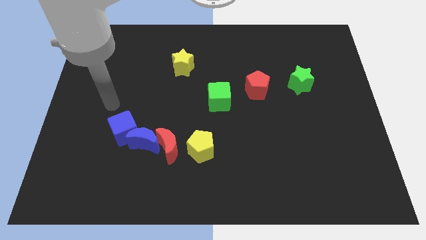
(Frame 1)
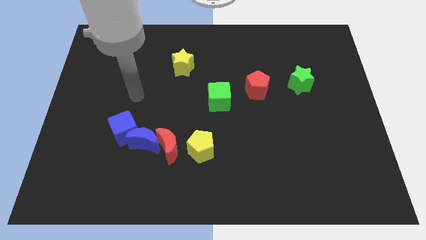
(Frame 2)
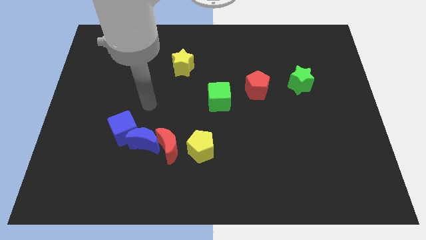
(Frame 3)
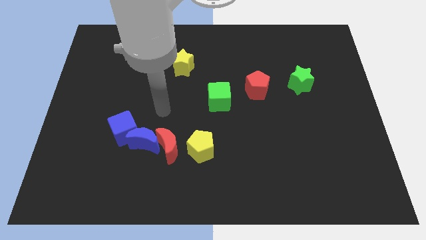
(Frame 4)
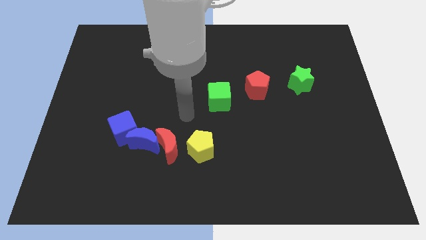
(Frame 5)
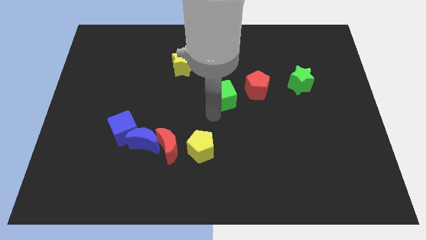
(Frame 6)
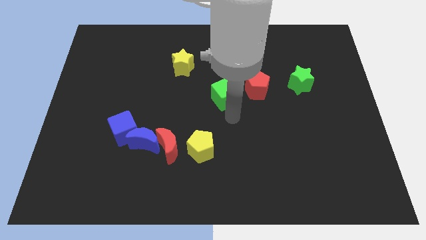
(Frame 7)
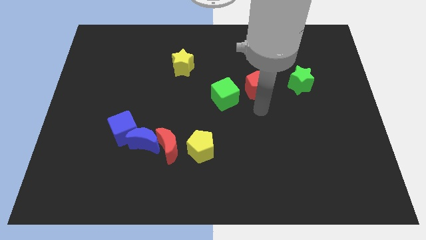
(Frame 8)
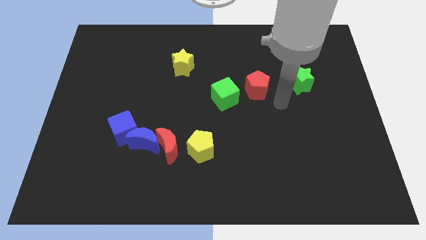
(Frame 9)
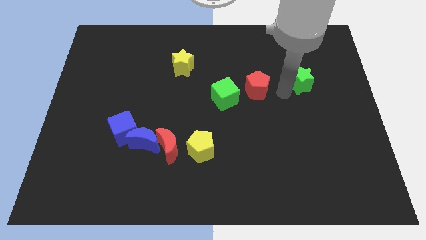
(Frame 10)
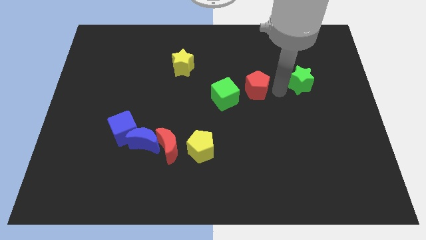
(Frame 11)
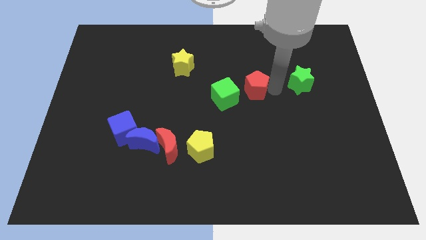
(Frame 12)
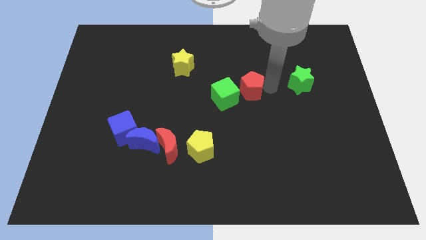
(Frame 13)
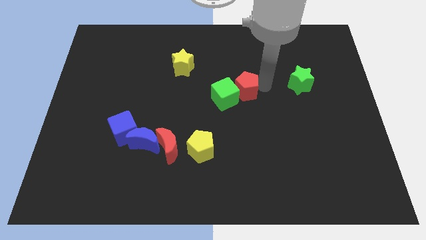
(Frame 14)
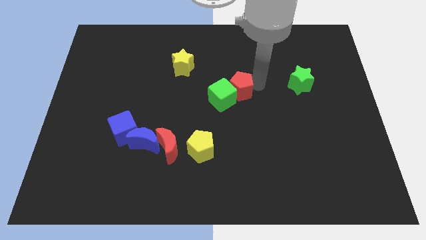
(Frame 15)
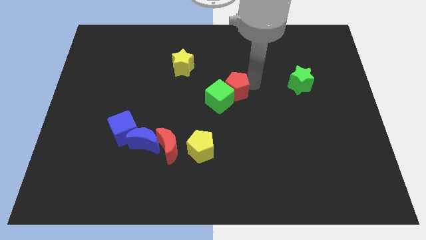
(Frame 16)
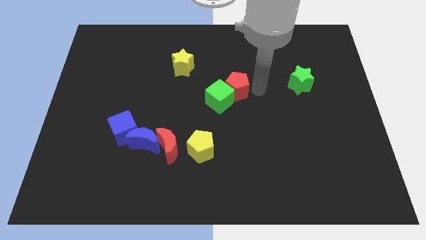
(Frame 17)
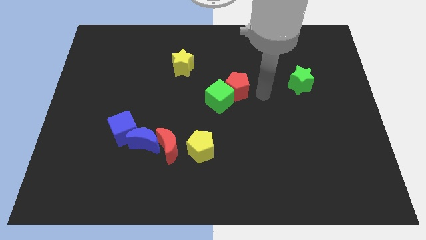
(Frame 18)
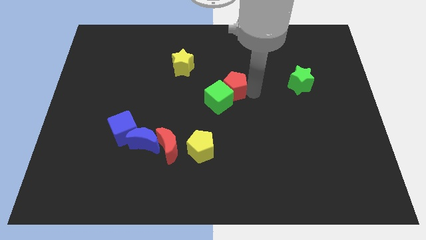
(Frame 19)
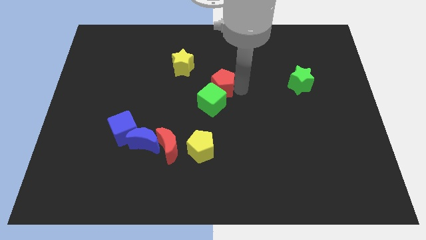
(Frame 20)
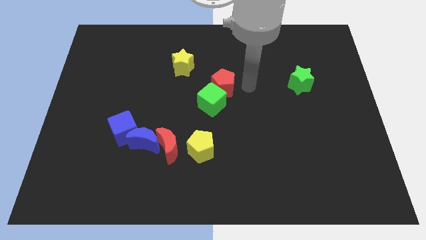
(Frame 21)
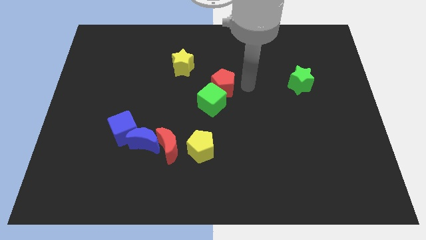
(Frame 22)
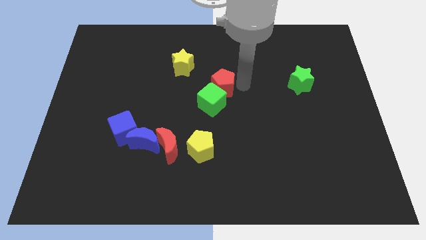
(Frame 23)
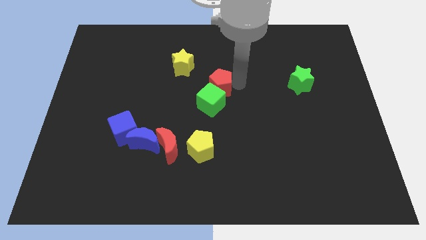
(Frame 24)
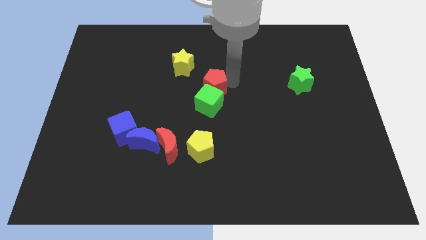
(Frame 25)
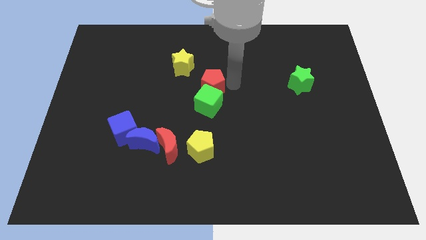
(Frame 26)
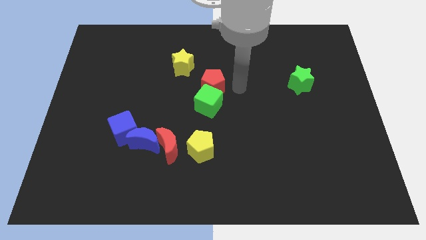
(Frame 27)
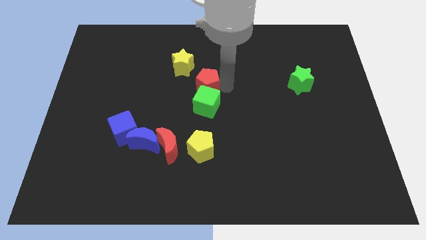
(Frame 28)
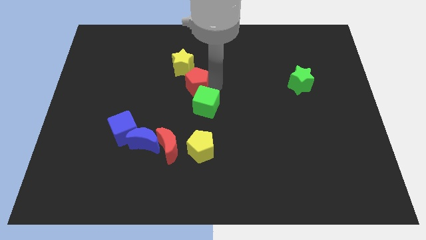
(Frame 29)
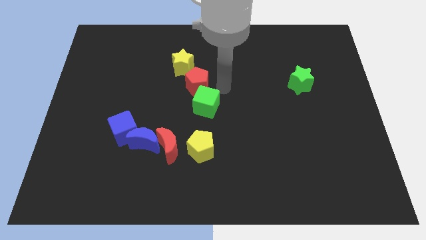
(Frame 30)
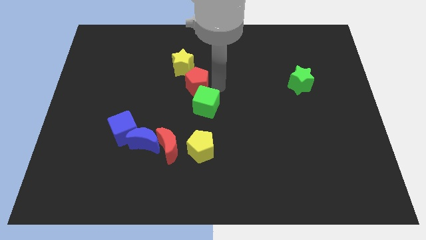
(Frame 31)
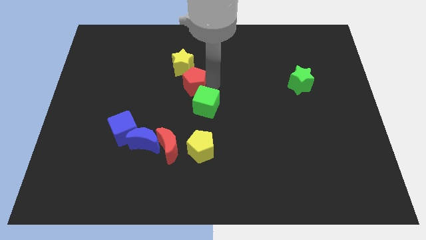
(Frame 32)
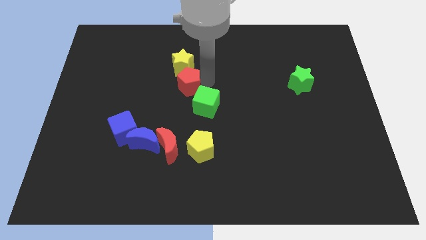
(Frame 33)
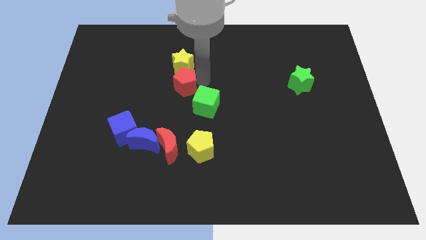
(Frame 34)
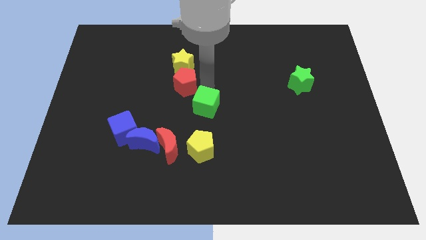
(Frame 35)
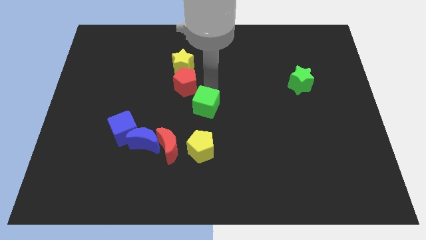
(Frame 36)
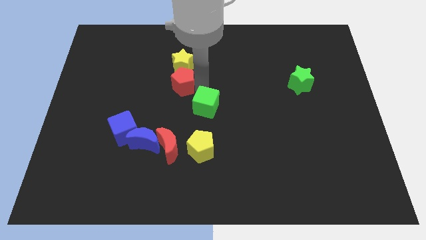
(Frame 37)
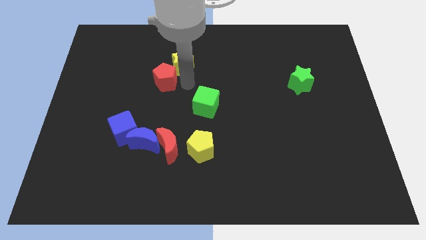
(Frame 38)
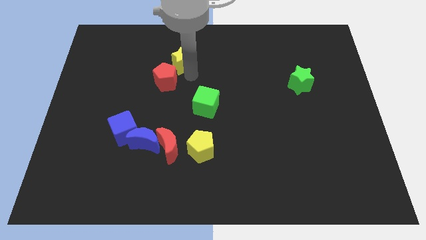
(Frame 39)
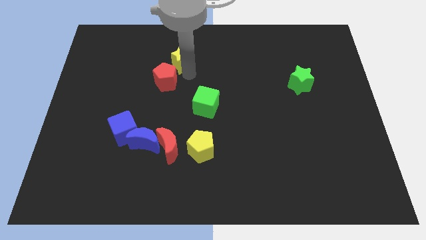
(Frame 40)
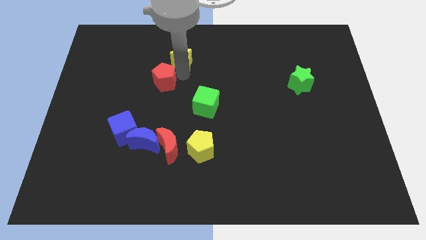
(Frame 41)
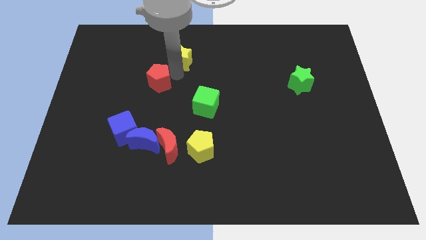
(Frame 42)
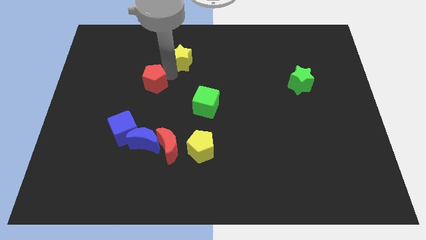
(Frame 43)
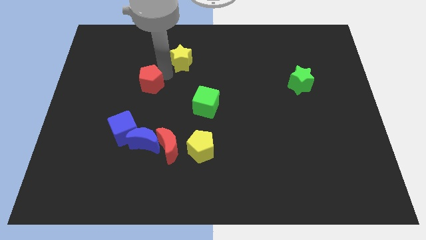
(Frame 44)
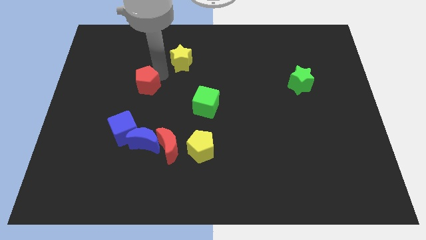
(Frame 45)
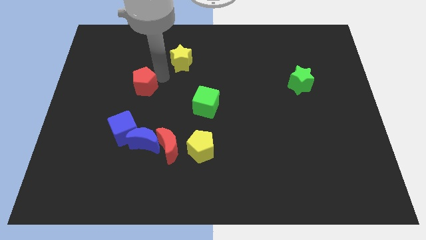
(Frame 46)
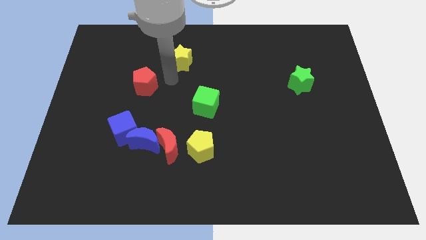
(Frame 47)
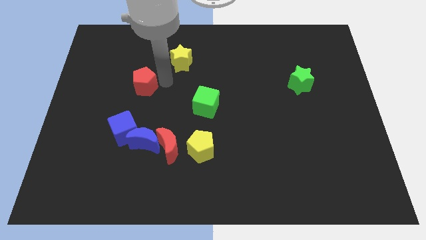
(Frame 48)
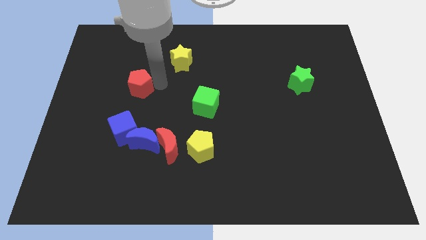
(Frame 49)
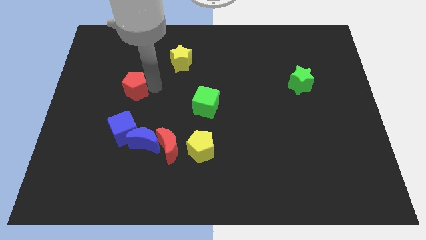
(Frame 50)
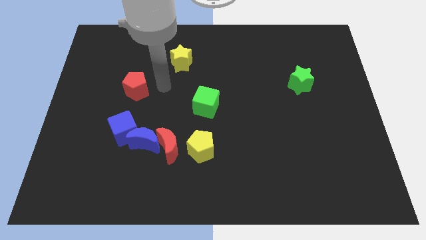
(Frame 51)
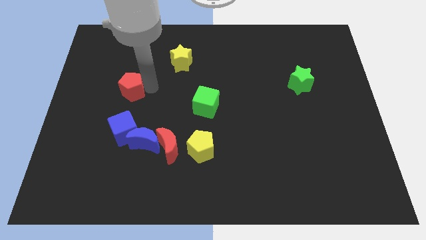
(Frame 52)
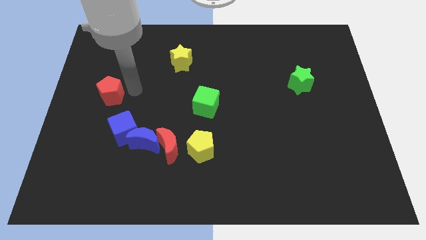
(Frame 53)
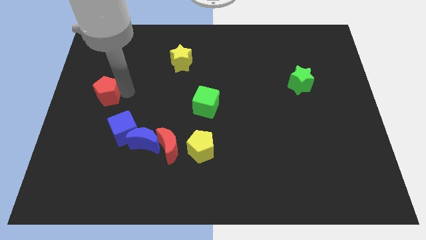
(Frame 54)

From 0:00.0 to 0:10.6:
push the red pentagon to the center left

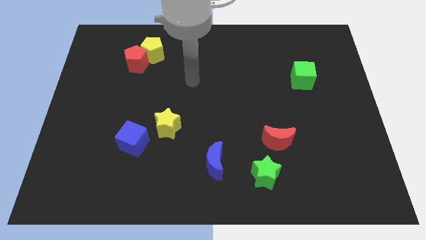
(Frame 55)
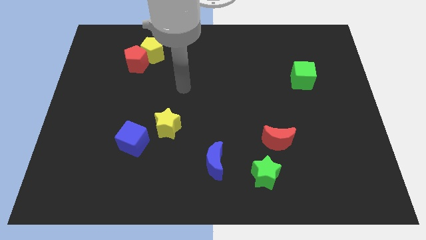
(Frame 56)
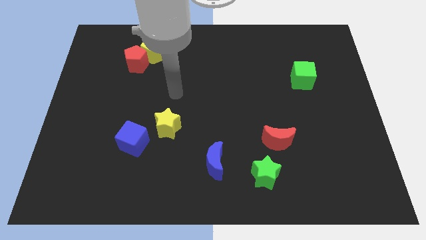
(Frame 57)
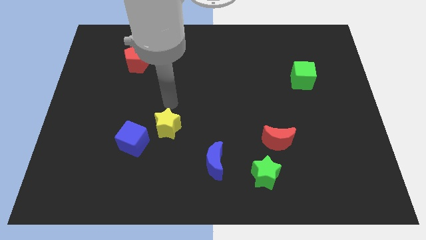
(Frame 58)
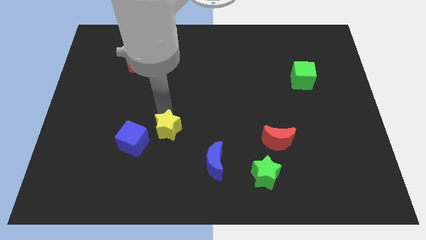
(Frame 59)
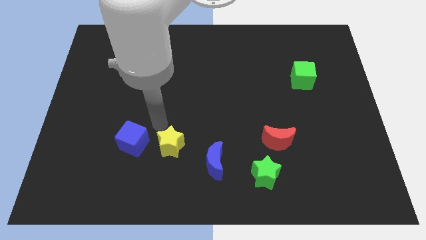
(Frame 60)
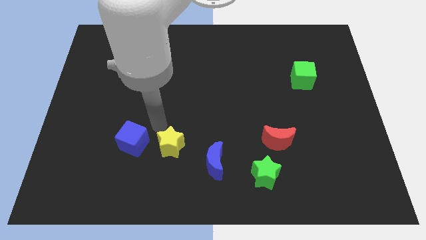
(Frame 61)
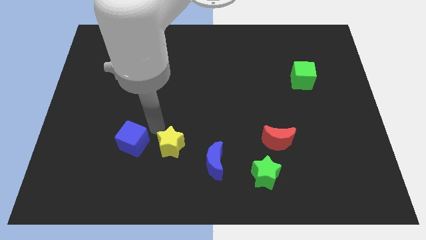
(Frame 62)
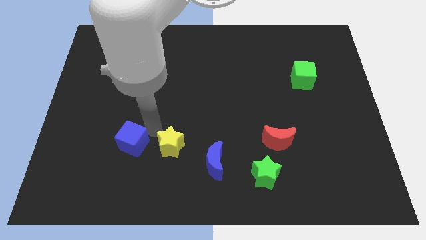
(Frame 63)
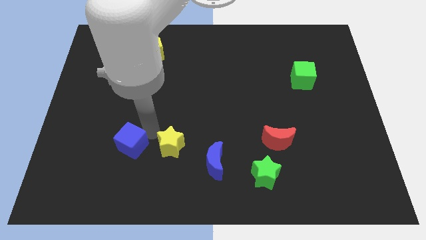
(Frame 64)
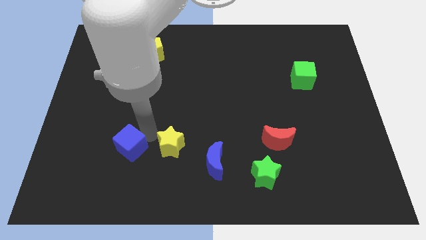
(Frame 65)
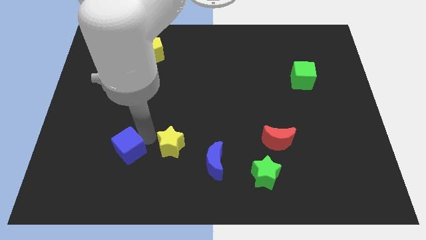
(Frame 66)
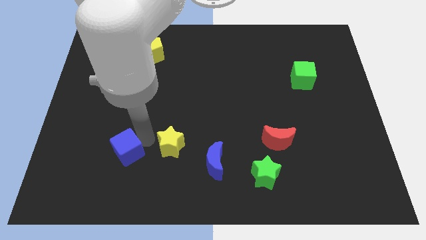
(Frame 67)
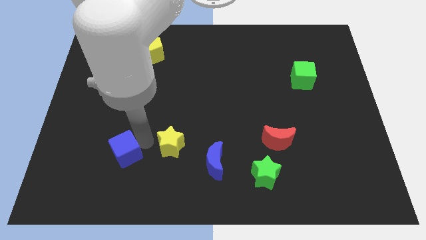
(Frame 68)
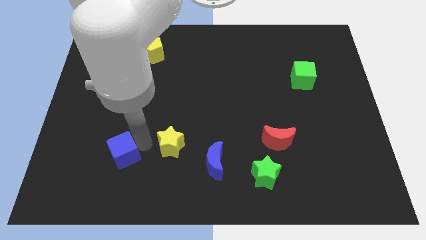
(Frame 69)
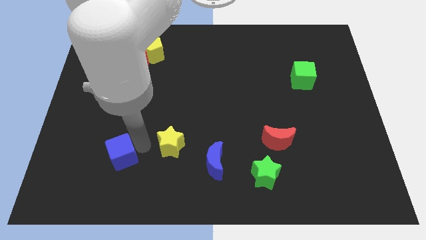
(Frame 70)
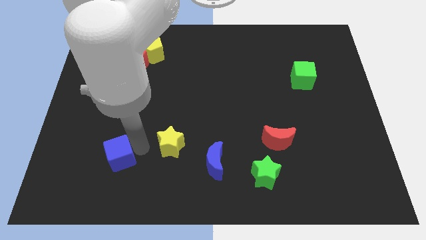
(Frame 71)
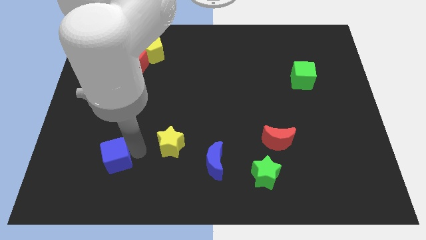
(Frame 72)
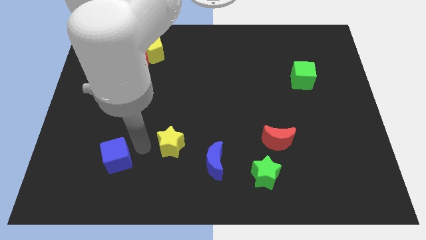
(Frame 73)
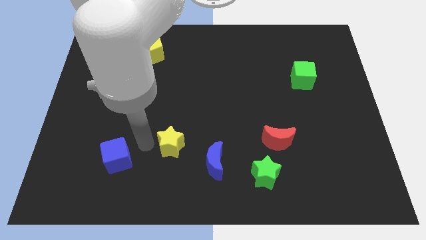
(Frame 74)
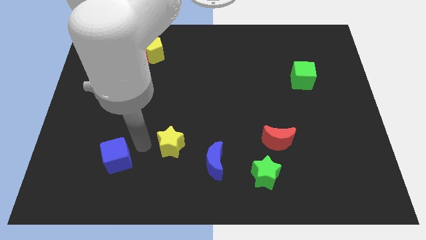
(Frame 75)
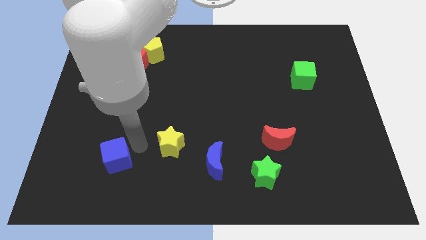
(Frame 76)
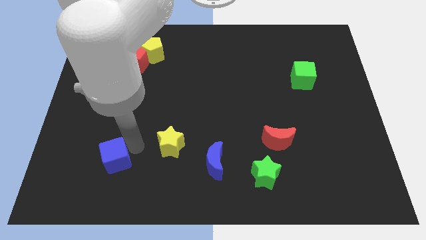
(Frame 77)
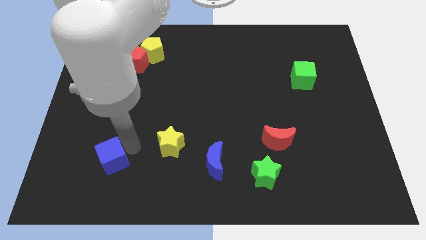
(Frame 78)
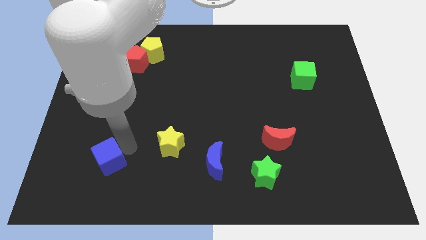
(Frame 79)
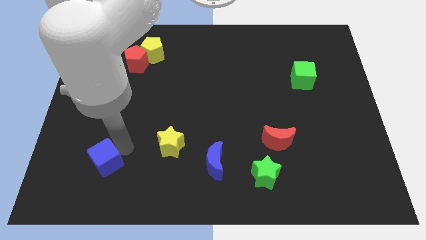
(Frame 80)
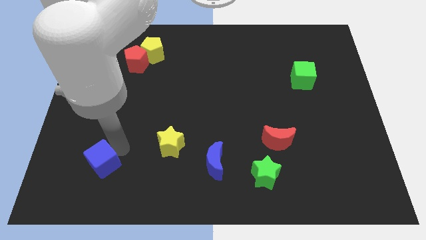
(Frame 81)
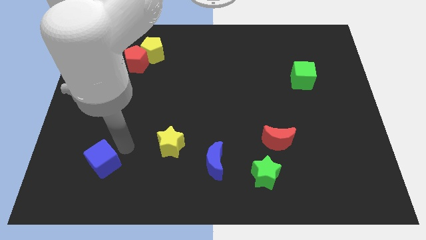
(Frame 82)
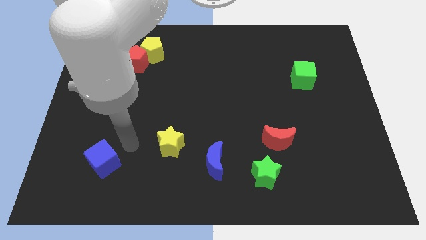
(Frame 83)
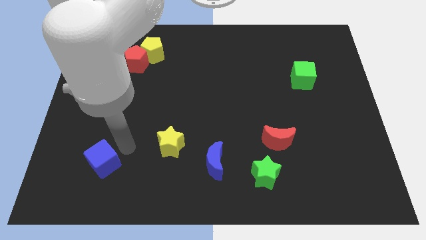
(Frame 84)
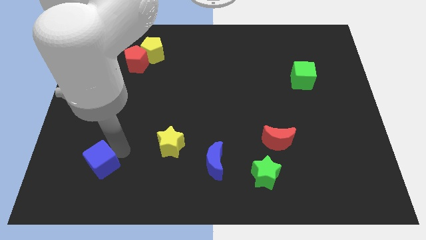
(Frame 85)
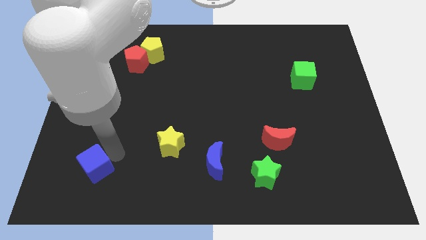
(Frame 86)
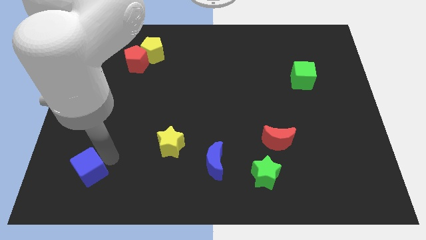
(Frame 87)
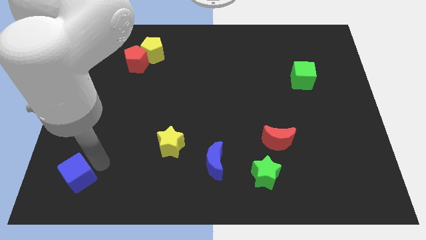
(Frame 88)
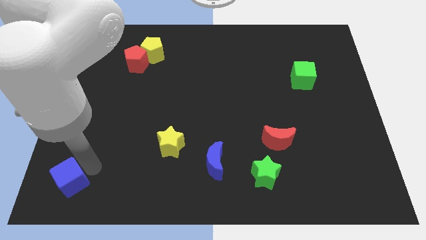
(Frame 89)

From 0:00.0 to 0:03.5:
slide the blue cube to the bottom left corner
